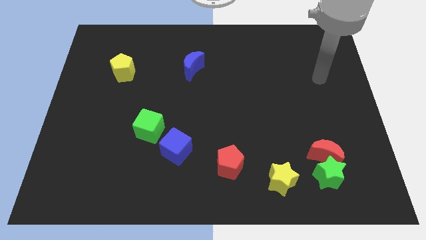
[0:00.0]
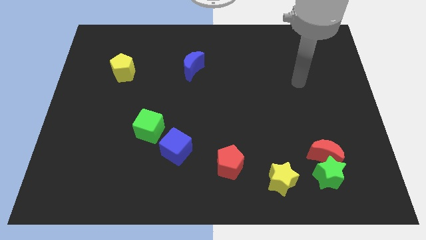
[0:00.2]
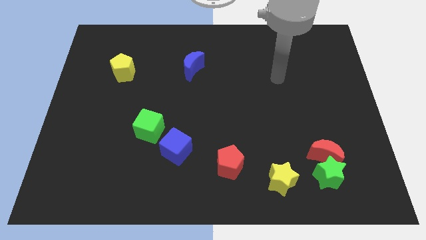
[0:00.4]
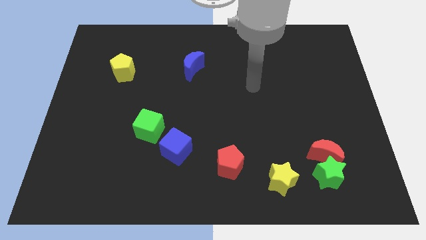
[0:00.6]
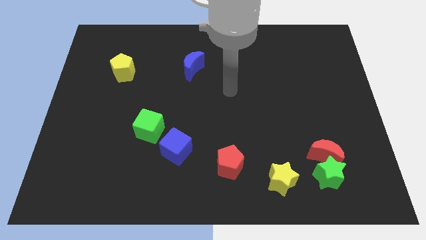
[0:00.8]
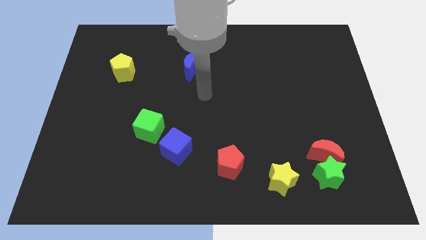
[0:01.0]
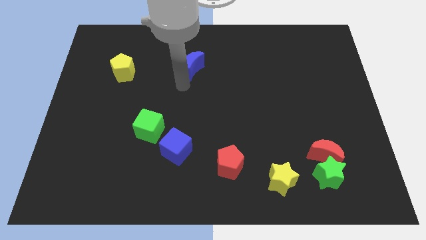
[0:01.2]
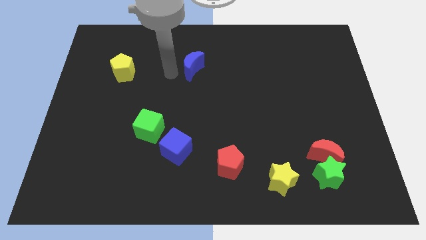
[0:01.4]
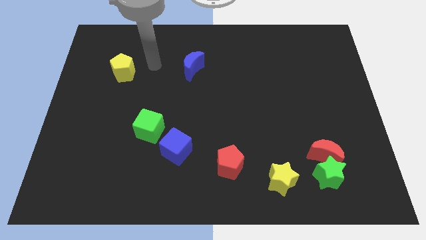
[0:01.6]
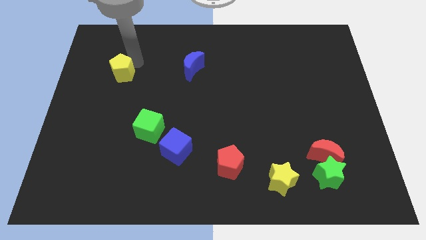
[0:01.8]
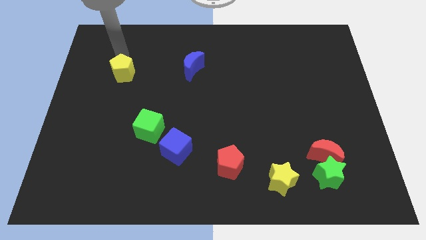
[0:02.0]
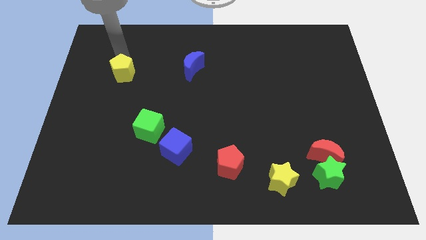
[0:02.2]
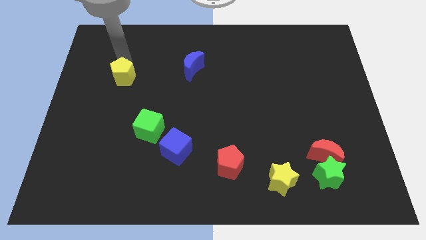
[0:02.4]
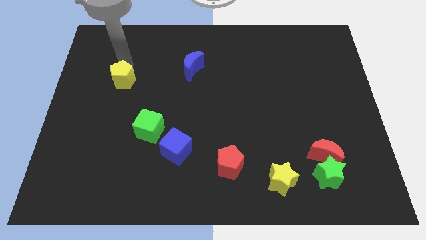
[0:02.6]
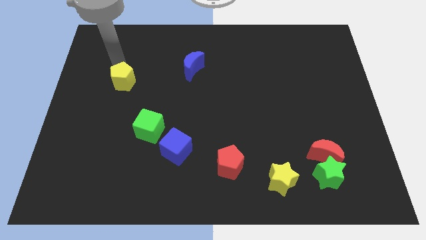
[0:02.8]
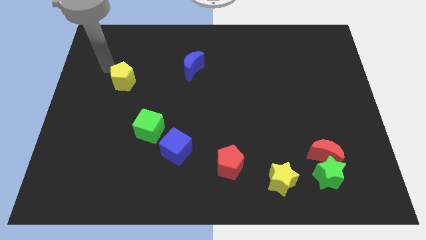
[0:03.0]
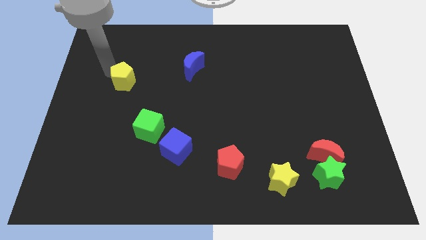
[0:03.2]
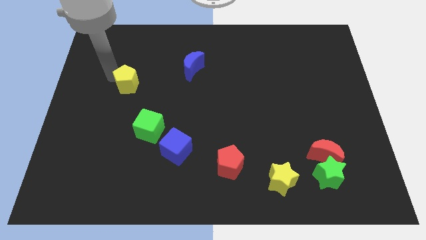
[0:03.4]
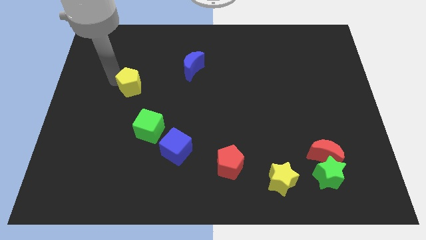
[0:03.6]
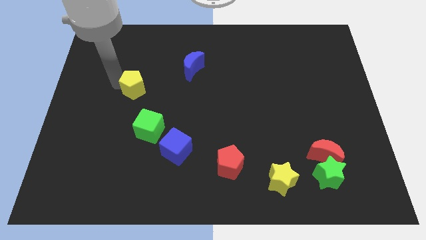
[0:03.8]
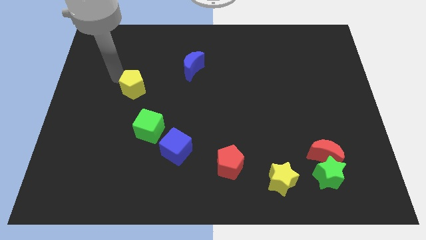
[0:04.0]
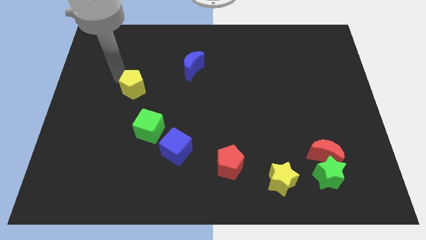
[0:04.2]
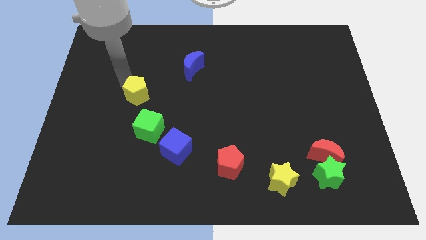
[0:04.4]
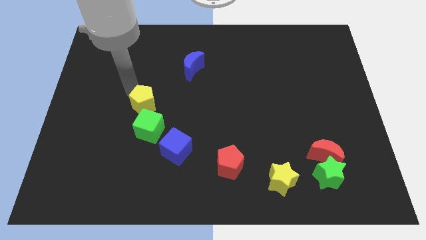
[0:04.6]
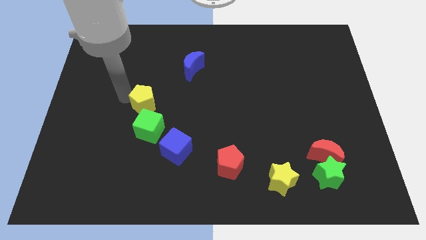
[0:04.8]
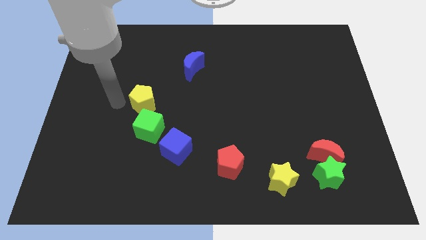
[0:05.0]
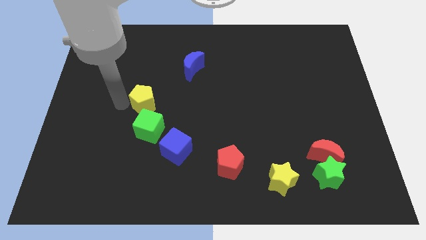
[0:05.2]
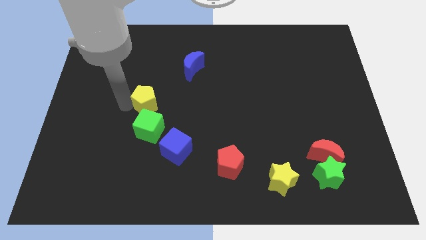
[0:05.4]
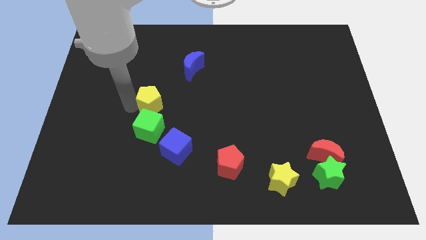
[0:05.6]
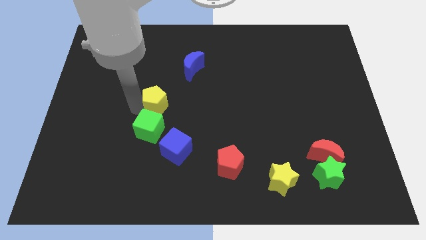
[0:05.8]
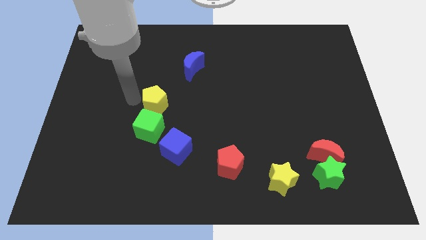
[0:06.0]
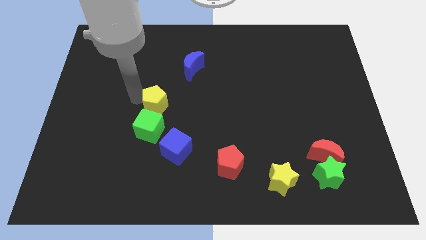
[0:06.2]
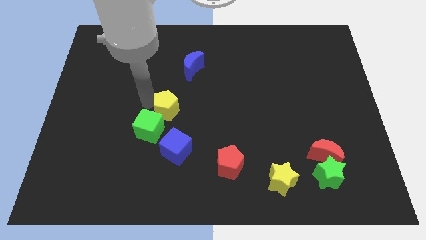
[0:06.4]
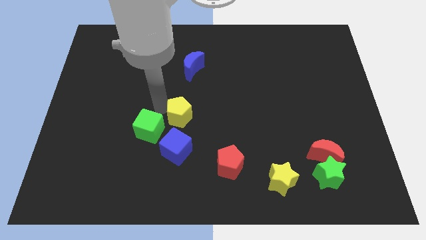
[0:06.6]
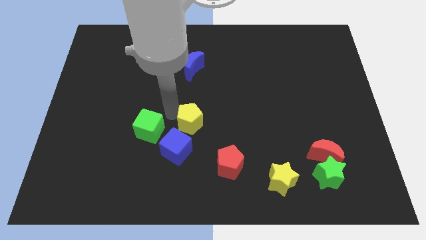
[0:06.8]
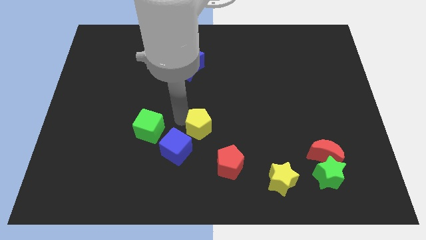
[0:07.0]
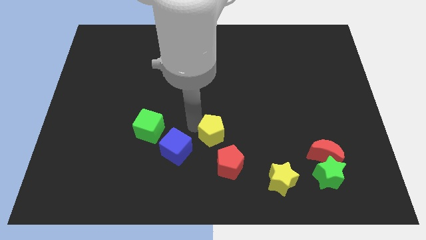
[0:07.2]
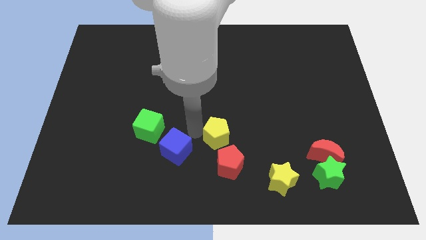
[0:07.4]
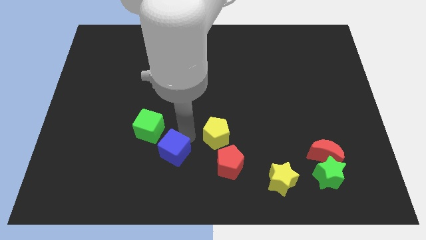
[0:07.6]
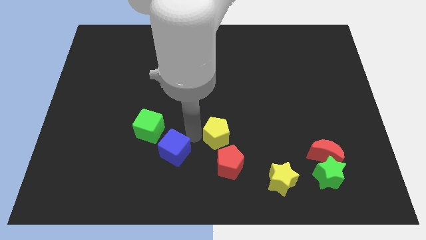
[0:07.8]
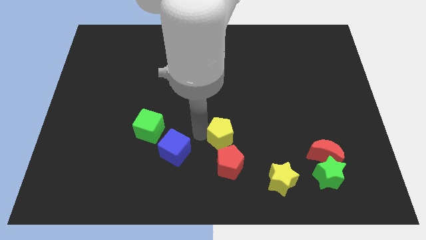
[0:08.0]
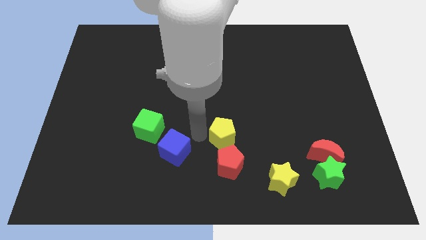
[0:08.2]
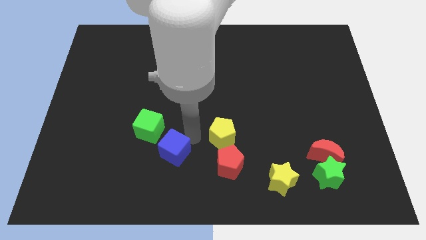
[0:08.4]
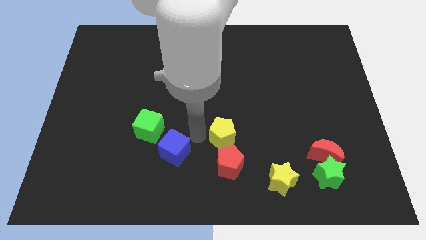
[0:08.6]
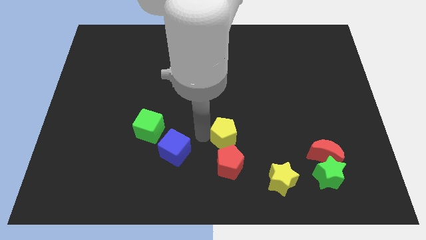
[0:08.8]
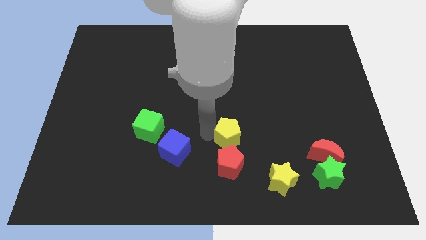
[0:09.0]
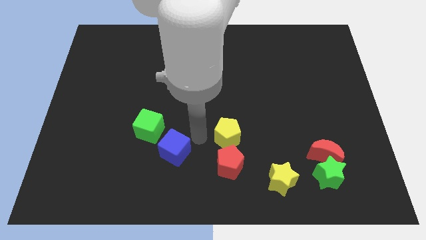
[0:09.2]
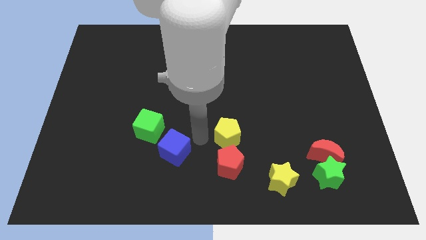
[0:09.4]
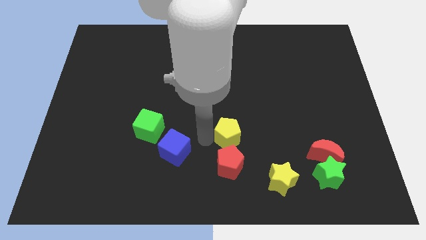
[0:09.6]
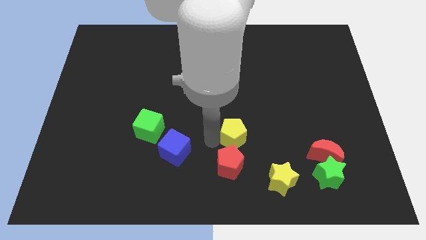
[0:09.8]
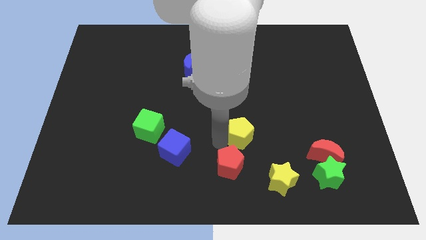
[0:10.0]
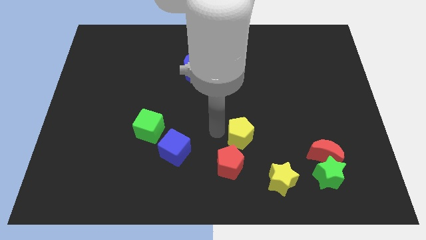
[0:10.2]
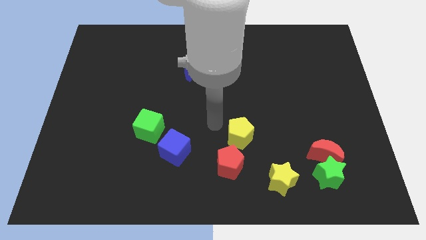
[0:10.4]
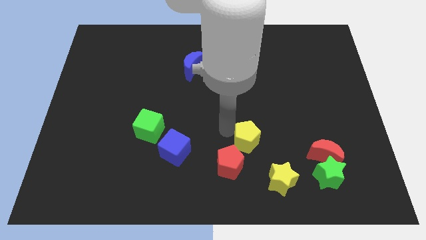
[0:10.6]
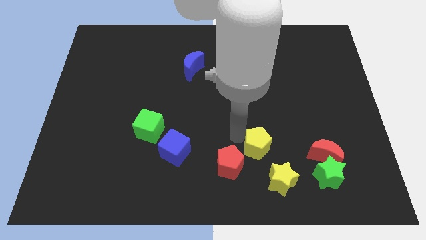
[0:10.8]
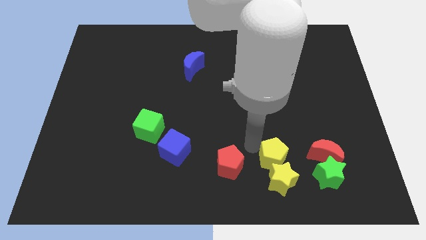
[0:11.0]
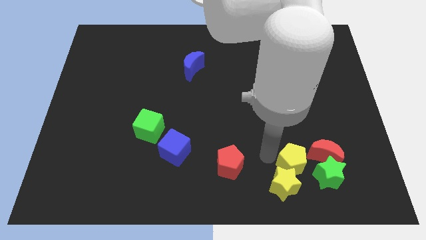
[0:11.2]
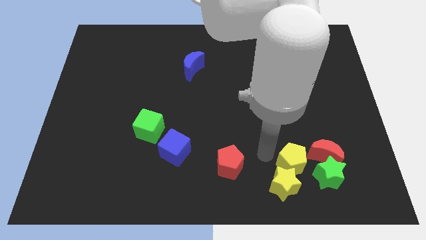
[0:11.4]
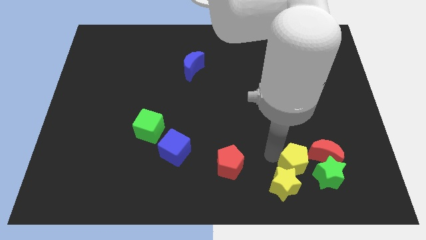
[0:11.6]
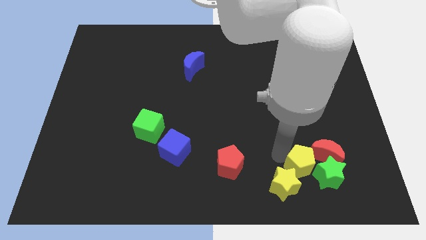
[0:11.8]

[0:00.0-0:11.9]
slide the yellow pentagon close to the green star

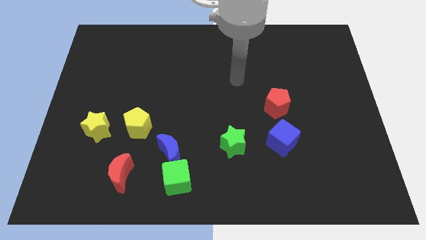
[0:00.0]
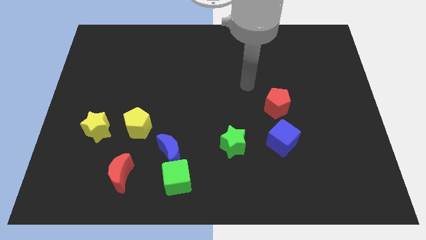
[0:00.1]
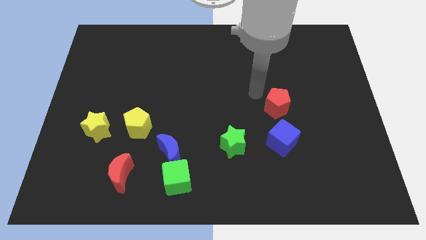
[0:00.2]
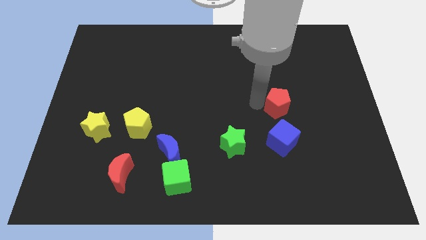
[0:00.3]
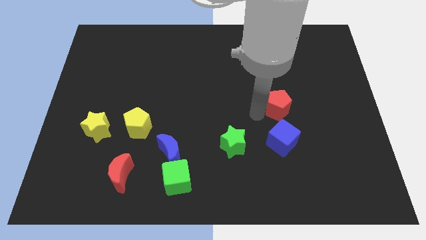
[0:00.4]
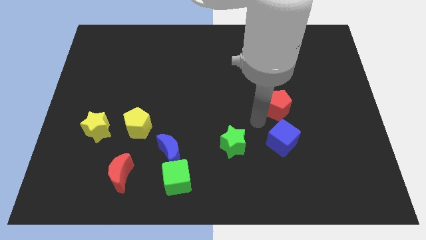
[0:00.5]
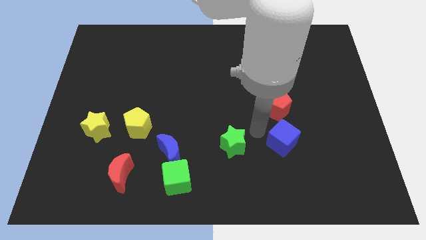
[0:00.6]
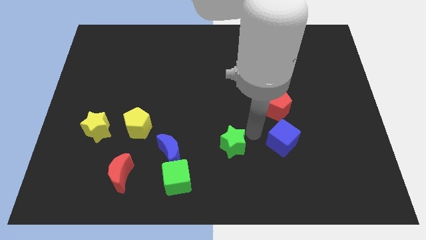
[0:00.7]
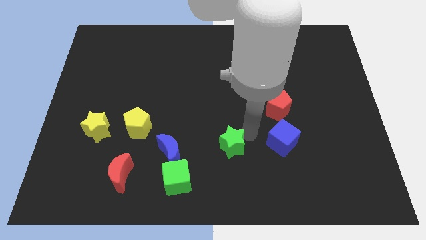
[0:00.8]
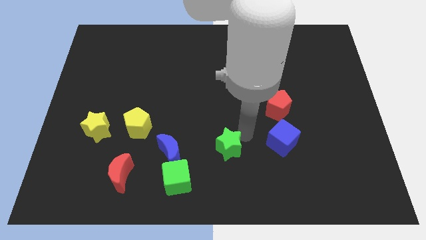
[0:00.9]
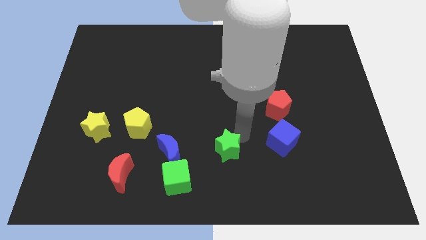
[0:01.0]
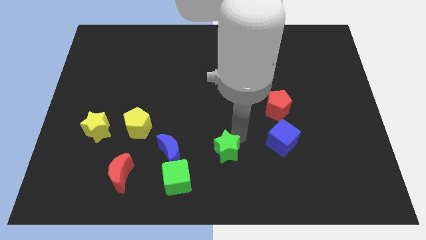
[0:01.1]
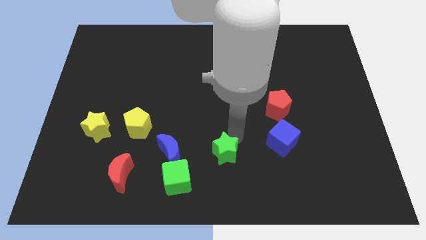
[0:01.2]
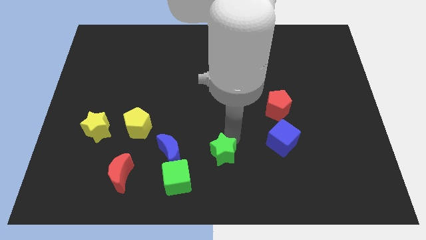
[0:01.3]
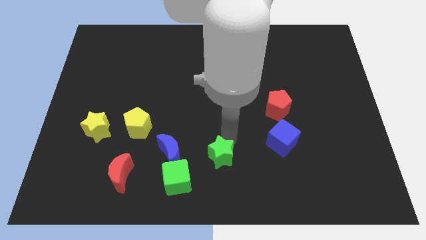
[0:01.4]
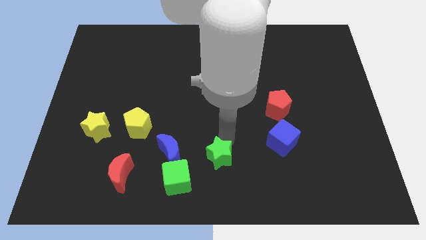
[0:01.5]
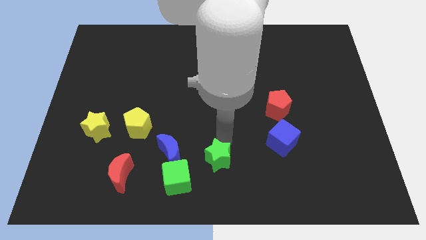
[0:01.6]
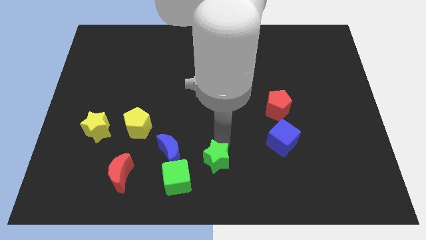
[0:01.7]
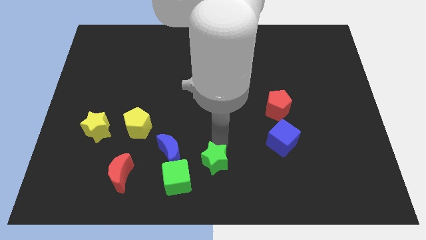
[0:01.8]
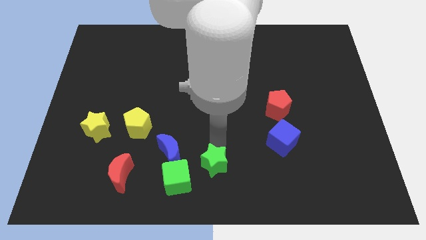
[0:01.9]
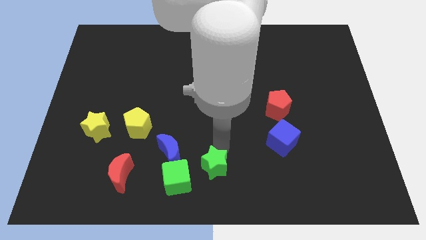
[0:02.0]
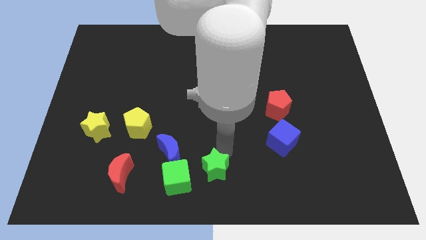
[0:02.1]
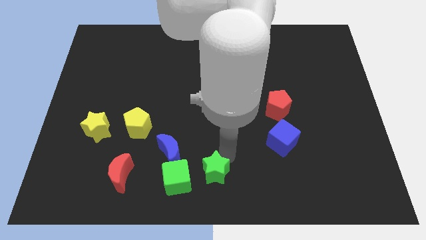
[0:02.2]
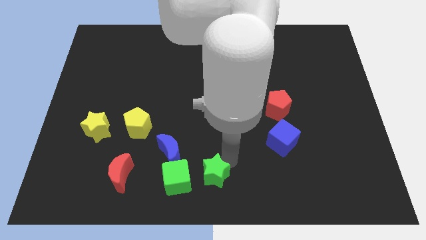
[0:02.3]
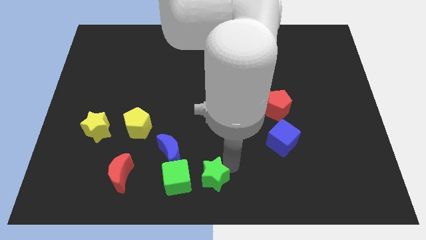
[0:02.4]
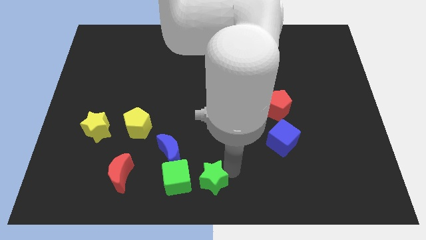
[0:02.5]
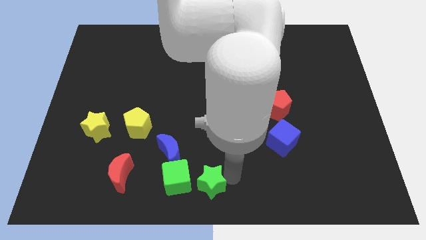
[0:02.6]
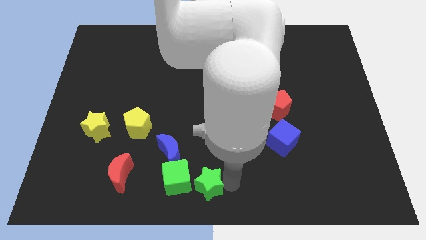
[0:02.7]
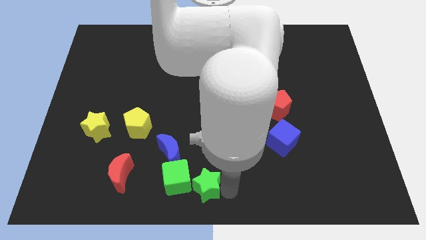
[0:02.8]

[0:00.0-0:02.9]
push the green star close to the green cube
